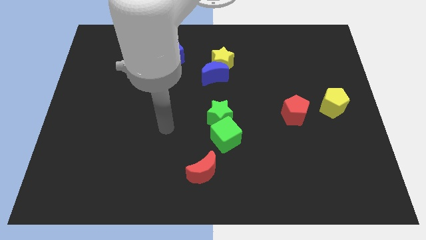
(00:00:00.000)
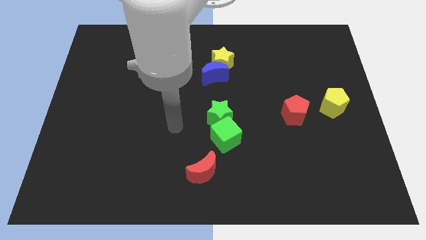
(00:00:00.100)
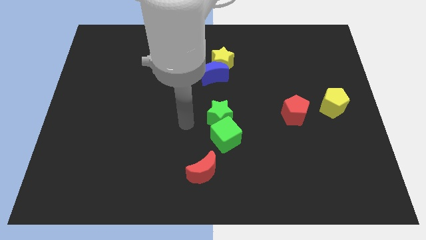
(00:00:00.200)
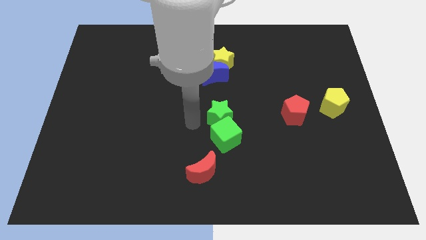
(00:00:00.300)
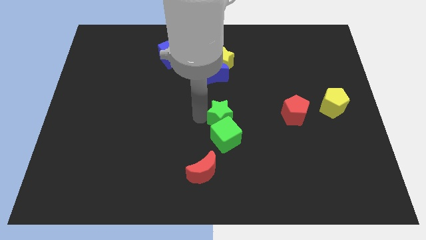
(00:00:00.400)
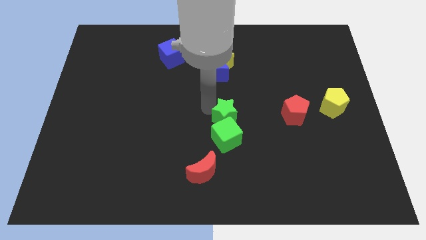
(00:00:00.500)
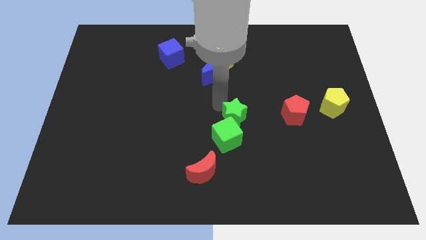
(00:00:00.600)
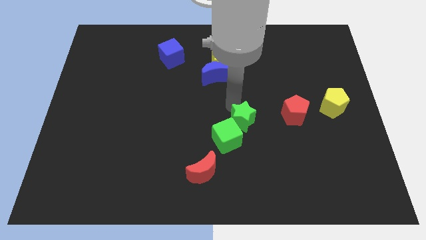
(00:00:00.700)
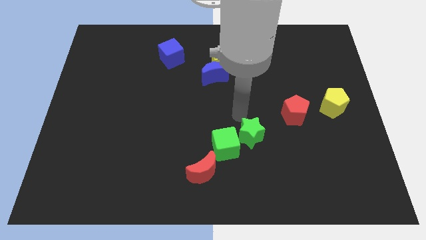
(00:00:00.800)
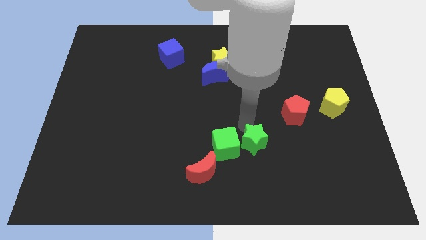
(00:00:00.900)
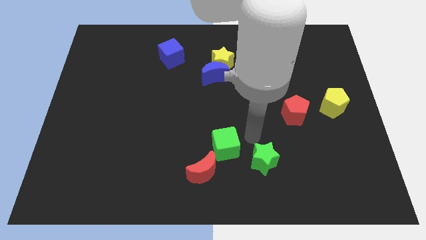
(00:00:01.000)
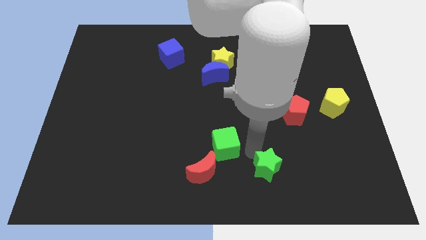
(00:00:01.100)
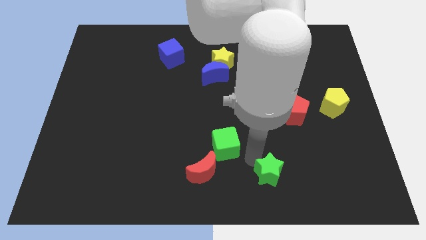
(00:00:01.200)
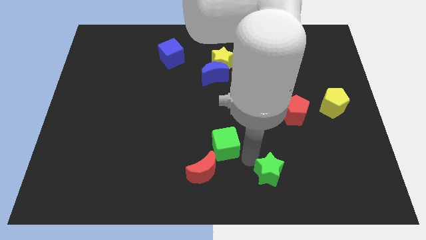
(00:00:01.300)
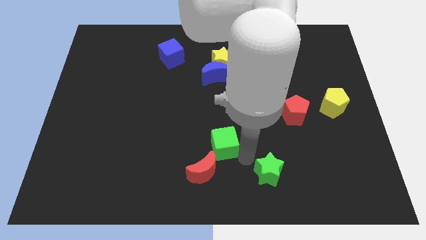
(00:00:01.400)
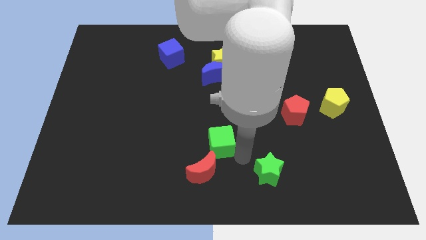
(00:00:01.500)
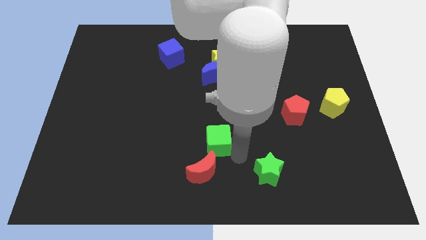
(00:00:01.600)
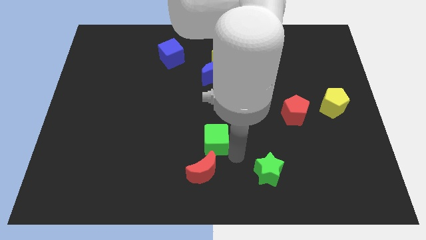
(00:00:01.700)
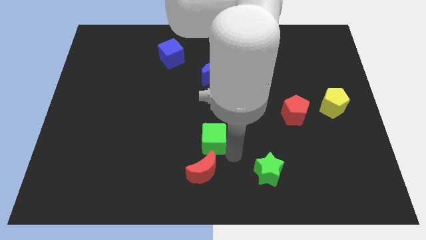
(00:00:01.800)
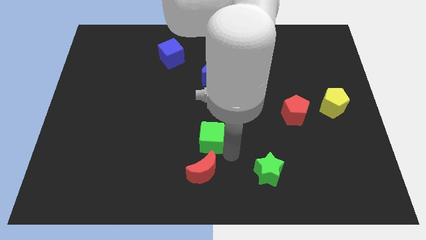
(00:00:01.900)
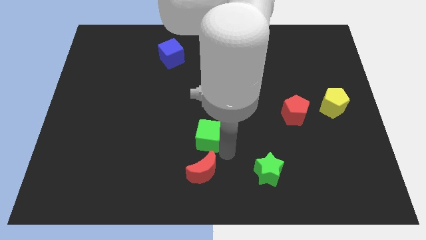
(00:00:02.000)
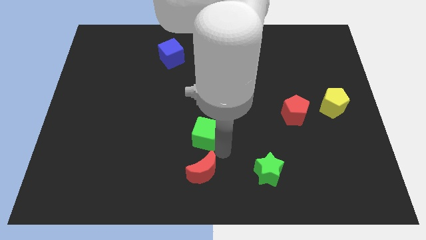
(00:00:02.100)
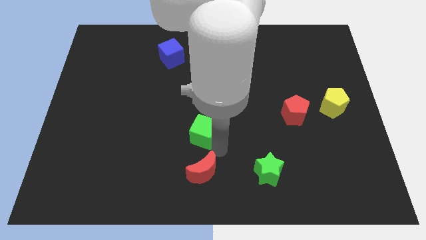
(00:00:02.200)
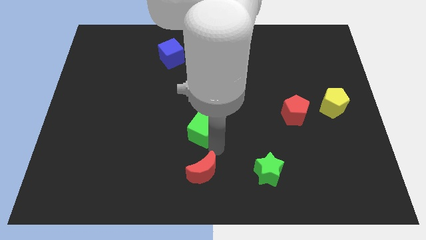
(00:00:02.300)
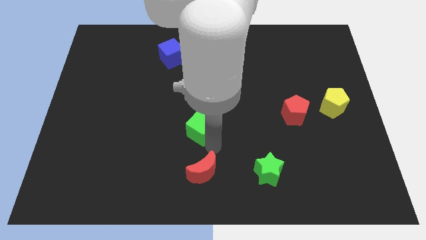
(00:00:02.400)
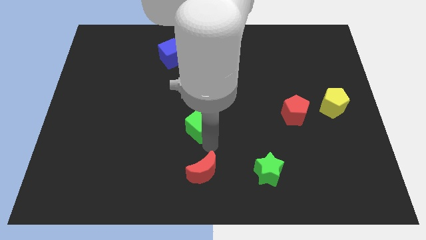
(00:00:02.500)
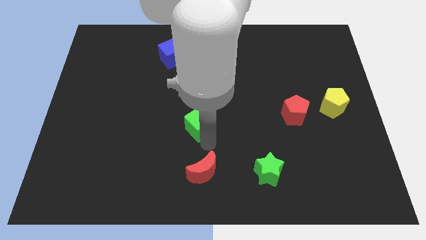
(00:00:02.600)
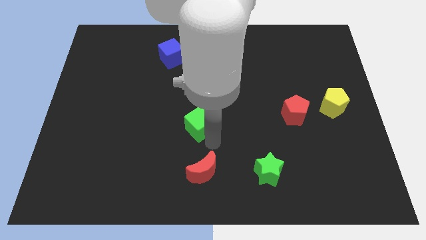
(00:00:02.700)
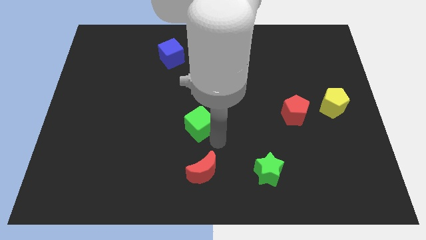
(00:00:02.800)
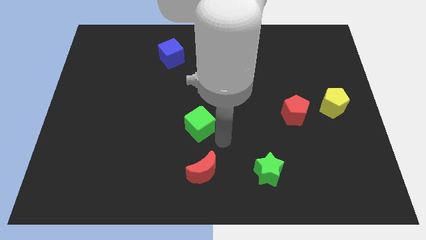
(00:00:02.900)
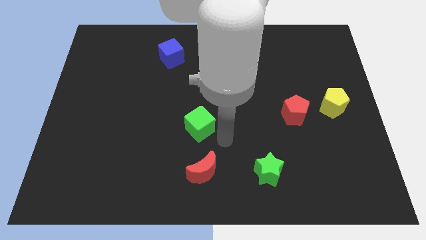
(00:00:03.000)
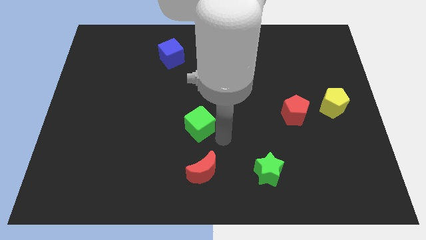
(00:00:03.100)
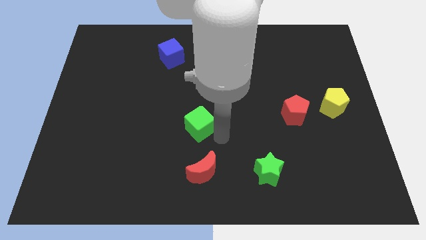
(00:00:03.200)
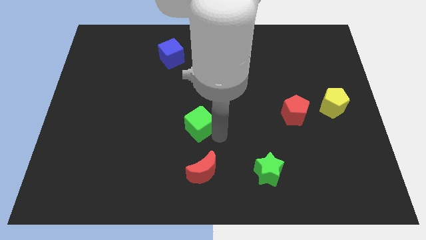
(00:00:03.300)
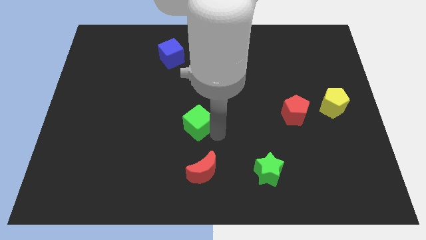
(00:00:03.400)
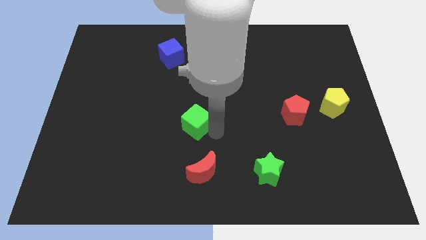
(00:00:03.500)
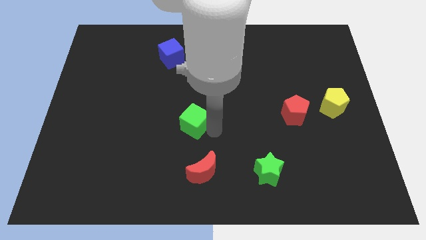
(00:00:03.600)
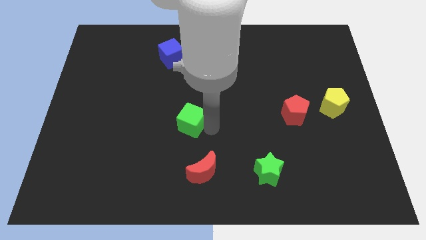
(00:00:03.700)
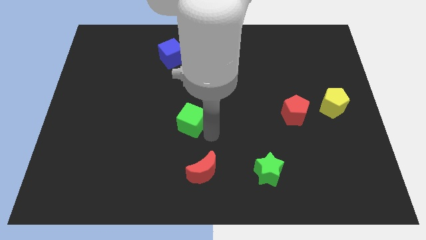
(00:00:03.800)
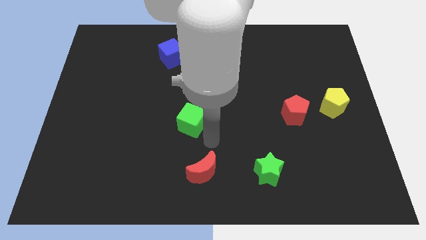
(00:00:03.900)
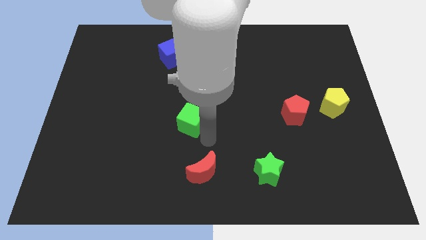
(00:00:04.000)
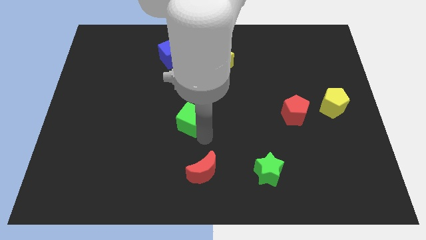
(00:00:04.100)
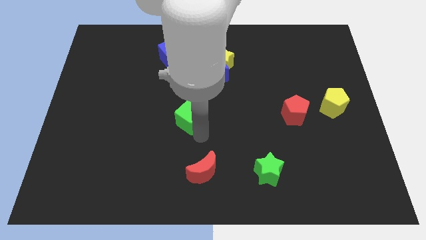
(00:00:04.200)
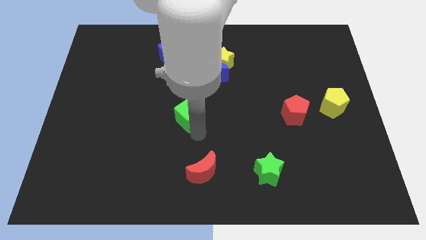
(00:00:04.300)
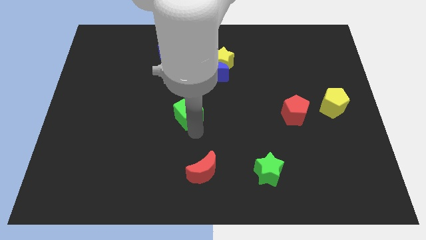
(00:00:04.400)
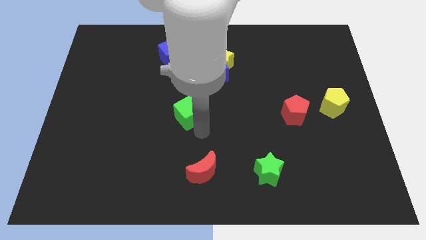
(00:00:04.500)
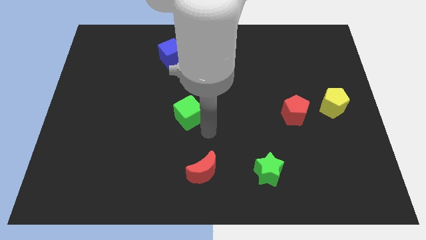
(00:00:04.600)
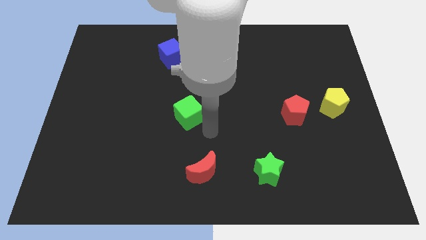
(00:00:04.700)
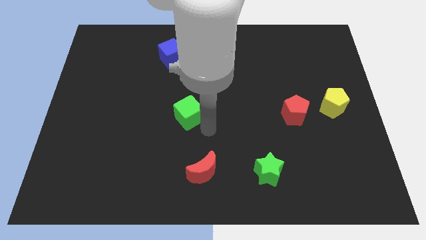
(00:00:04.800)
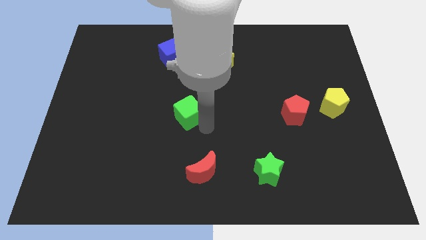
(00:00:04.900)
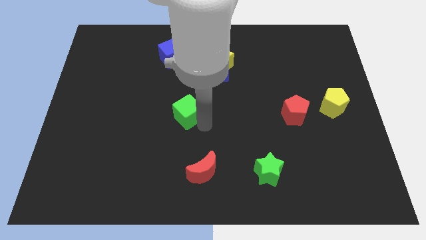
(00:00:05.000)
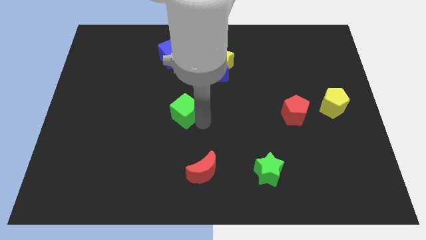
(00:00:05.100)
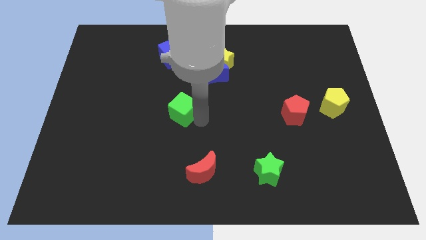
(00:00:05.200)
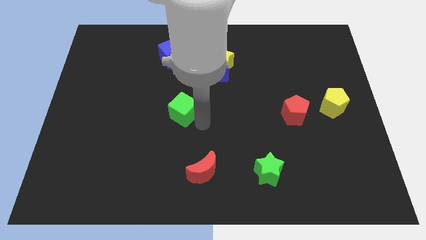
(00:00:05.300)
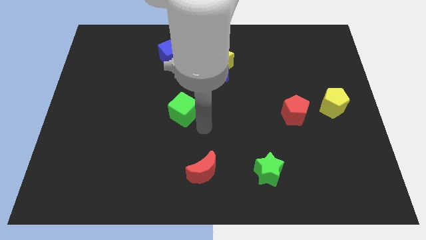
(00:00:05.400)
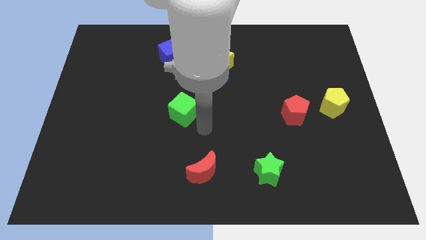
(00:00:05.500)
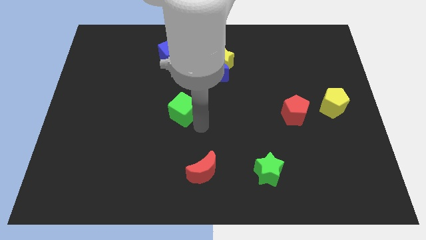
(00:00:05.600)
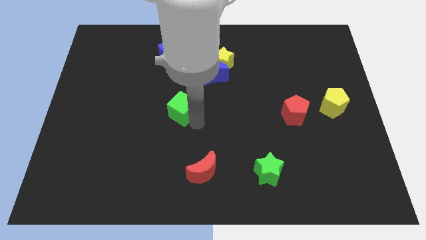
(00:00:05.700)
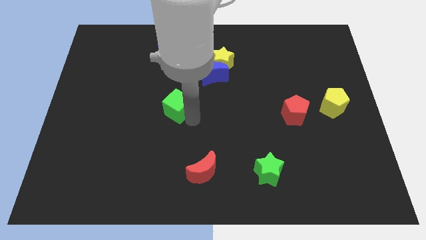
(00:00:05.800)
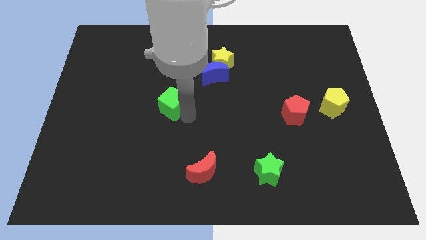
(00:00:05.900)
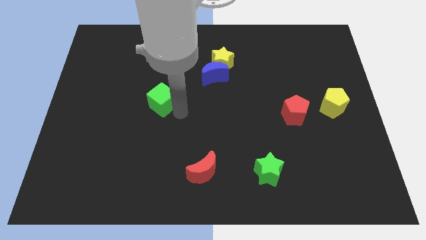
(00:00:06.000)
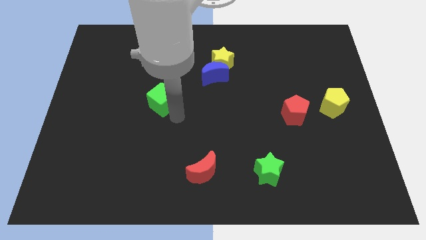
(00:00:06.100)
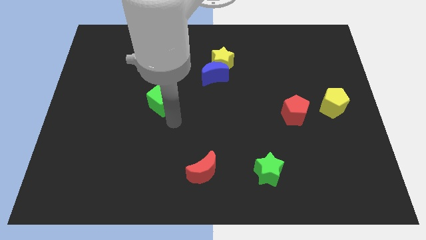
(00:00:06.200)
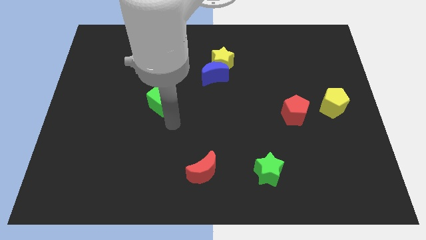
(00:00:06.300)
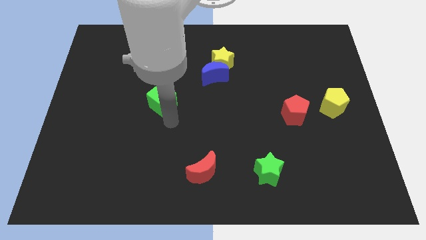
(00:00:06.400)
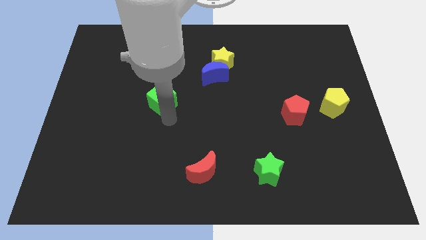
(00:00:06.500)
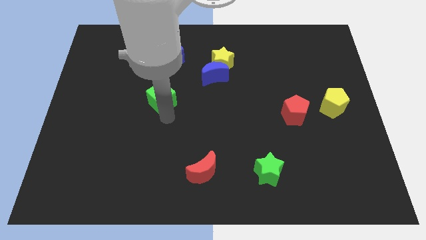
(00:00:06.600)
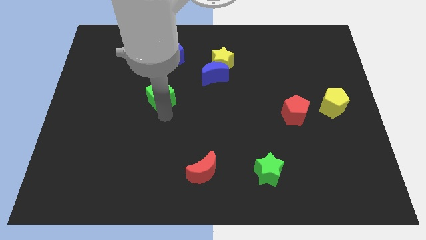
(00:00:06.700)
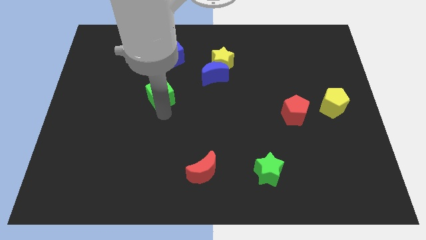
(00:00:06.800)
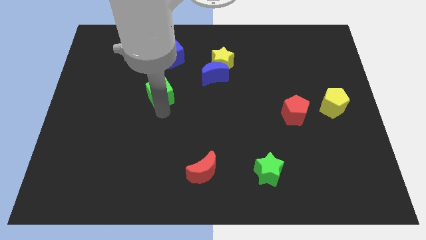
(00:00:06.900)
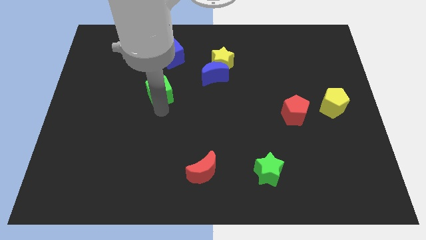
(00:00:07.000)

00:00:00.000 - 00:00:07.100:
move the green cube upwards and then to the left

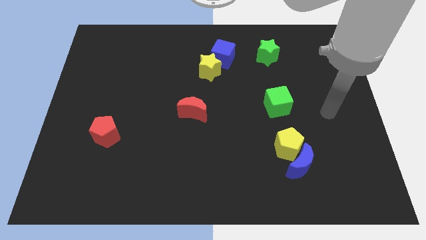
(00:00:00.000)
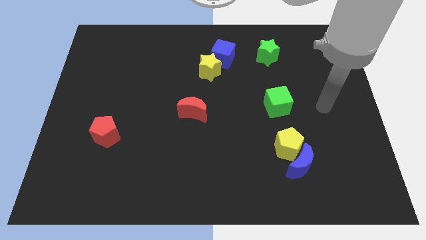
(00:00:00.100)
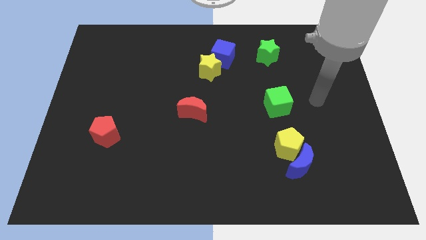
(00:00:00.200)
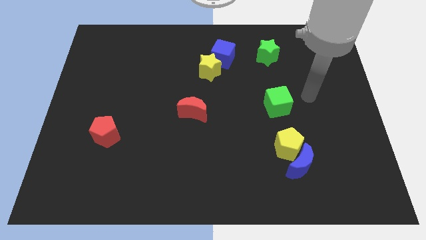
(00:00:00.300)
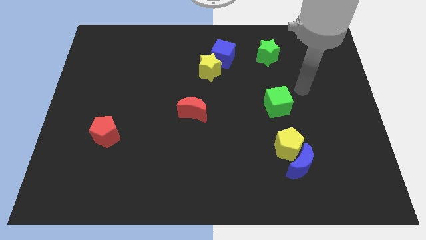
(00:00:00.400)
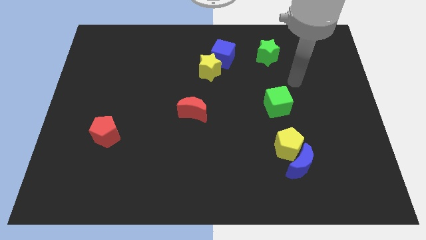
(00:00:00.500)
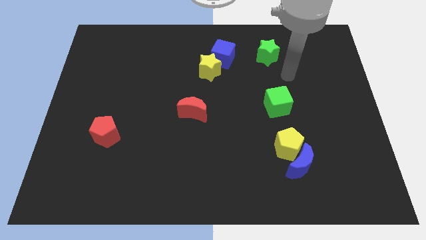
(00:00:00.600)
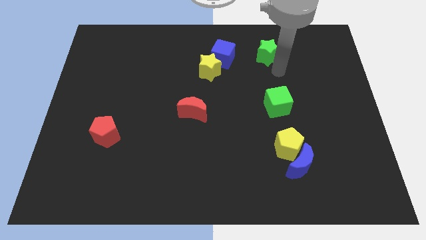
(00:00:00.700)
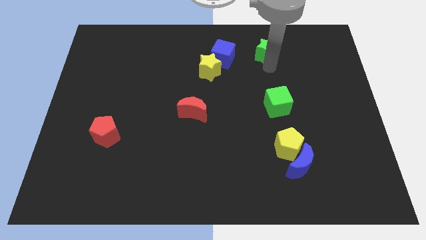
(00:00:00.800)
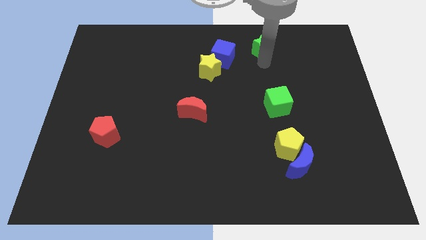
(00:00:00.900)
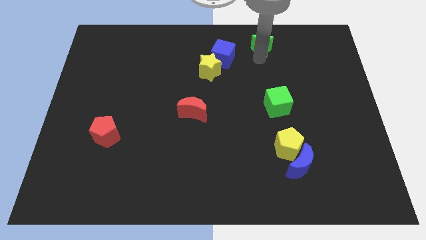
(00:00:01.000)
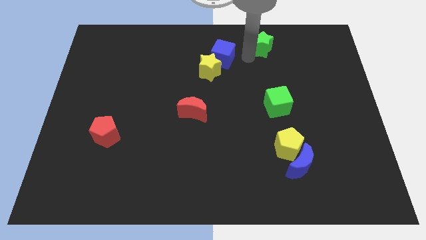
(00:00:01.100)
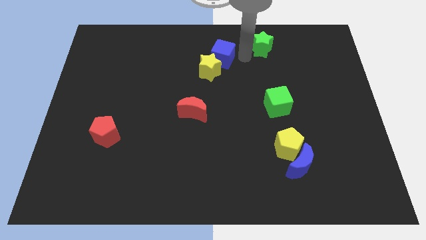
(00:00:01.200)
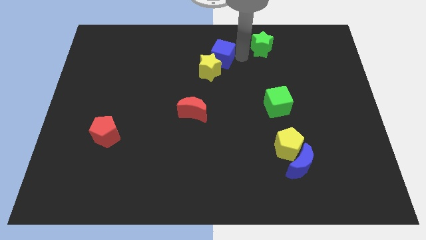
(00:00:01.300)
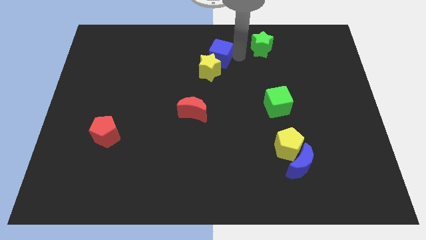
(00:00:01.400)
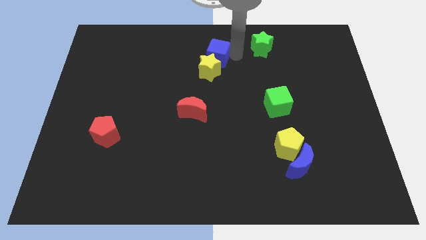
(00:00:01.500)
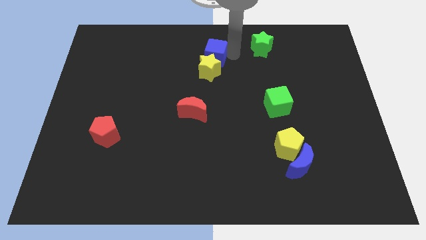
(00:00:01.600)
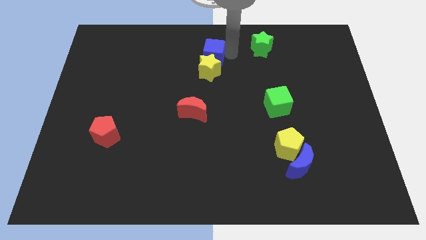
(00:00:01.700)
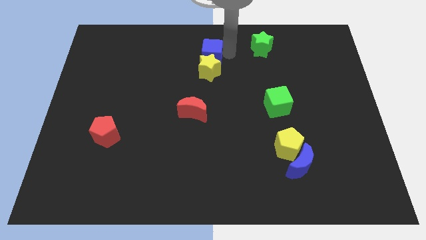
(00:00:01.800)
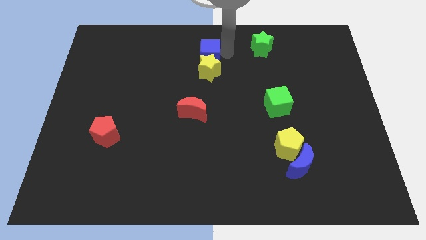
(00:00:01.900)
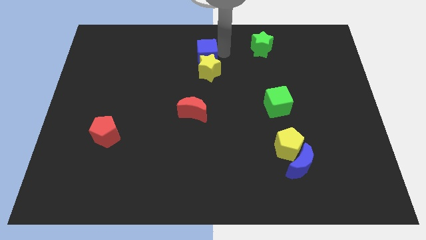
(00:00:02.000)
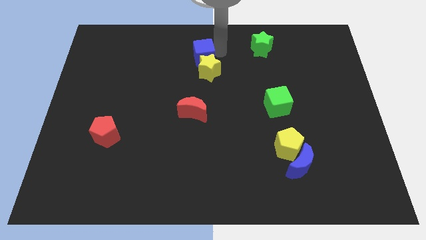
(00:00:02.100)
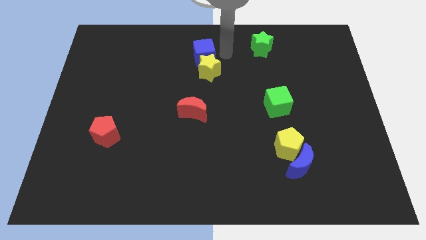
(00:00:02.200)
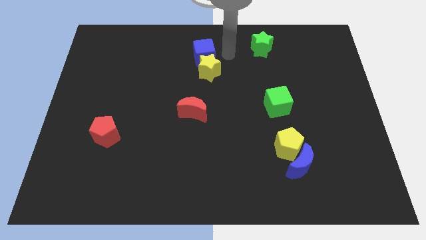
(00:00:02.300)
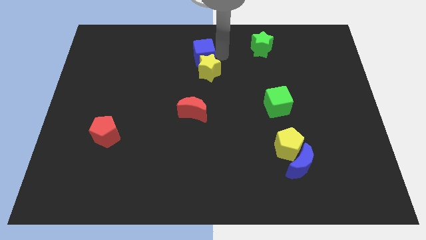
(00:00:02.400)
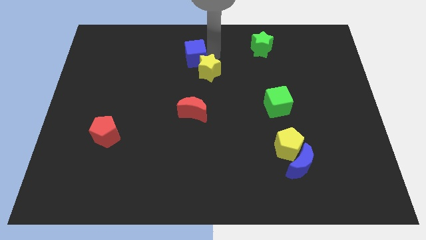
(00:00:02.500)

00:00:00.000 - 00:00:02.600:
slightly slide the blue cube to the left
